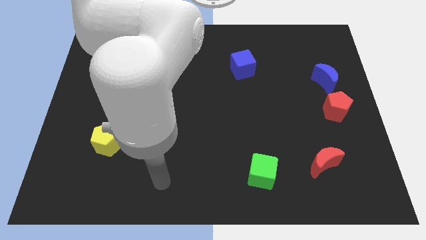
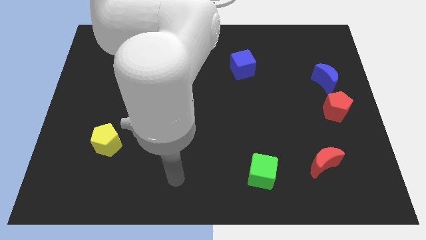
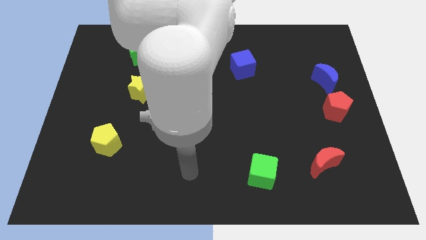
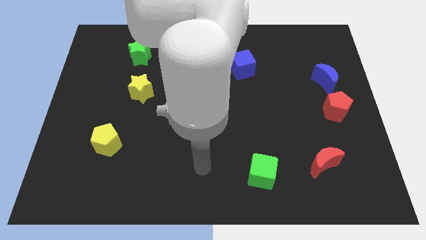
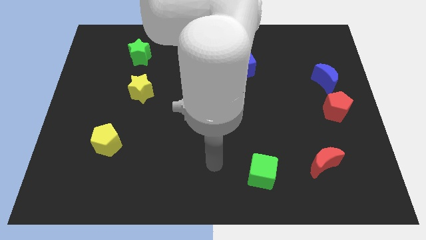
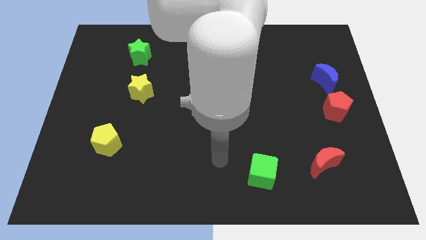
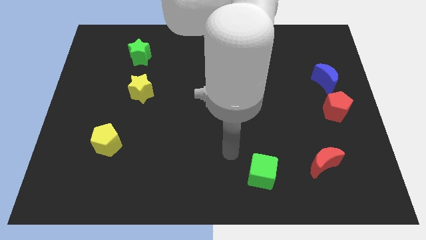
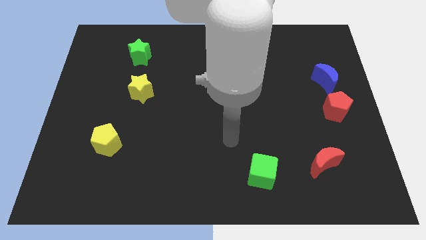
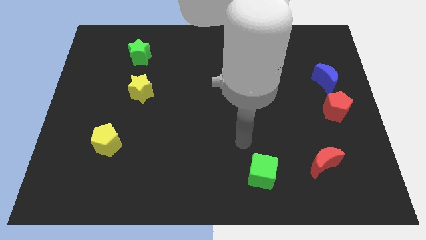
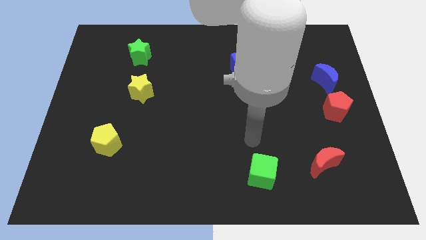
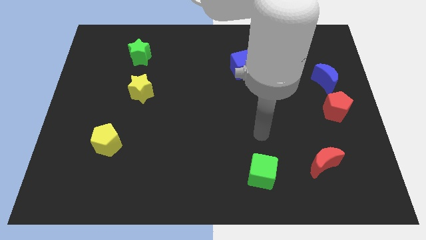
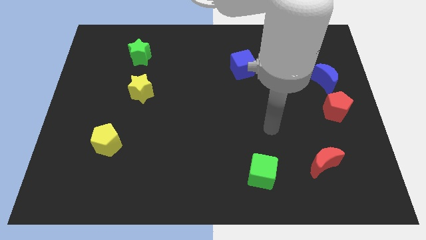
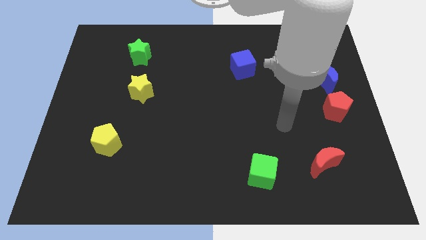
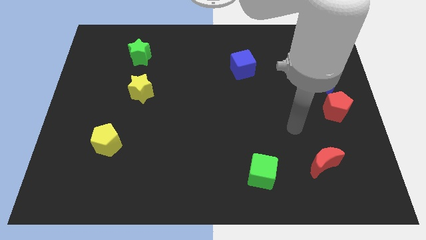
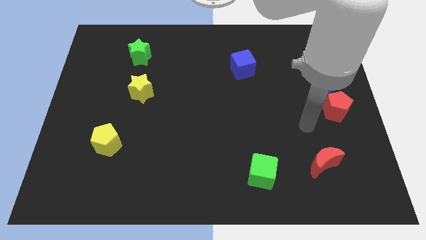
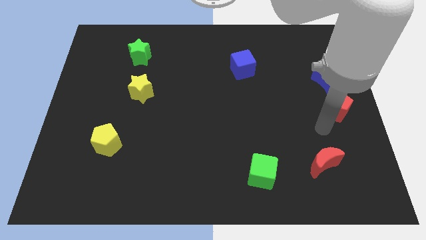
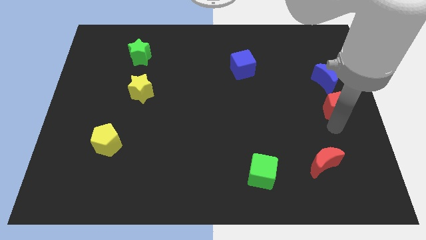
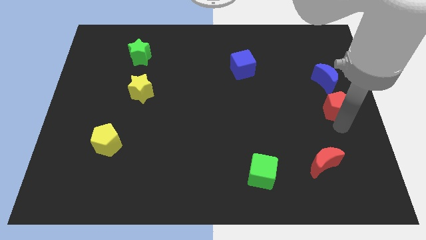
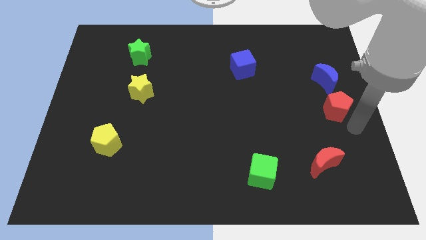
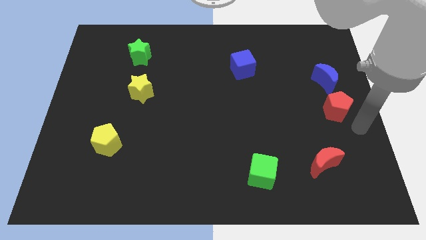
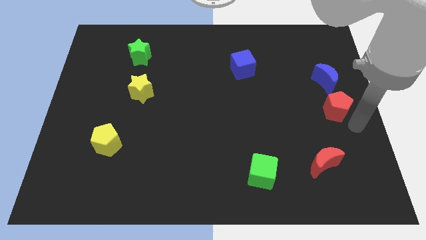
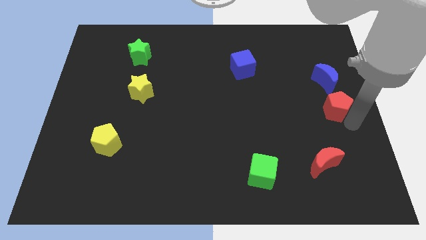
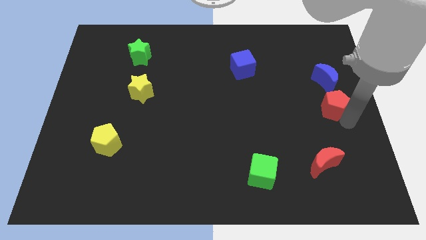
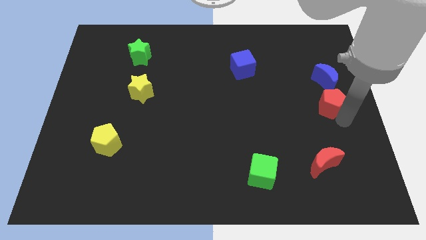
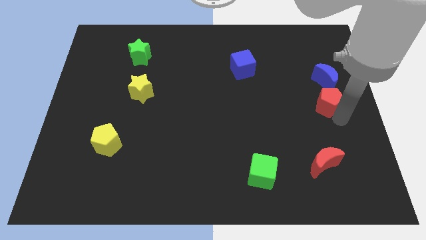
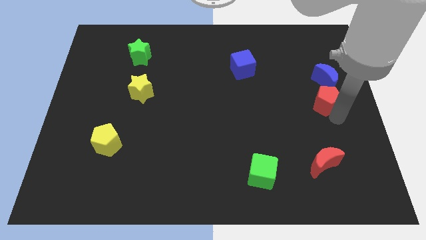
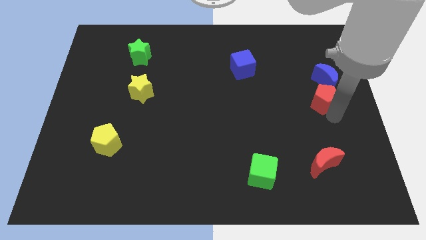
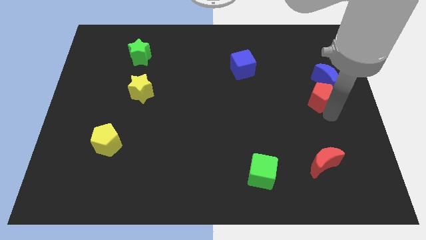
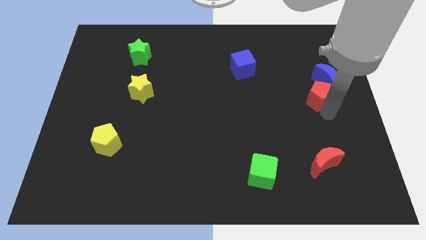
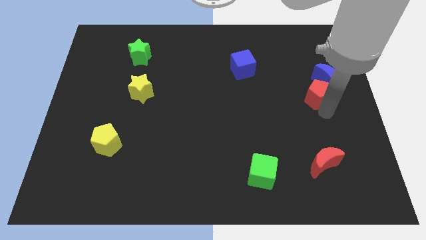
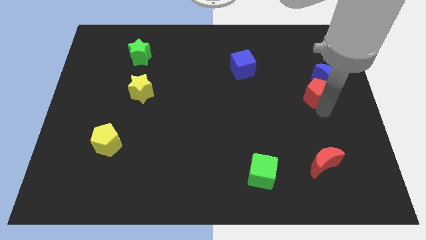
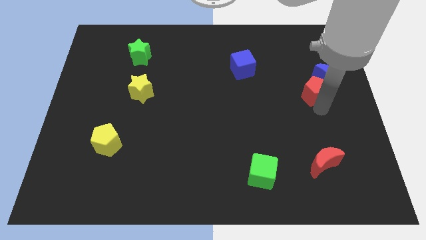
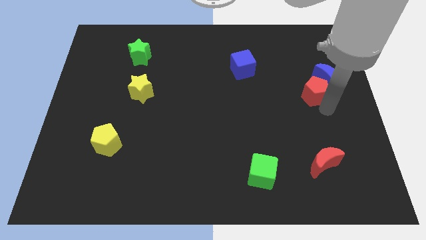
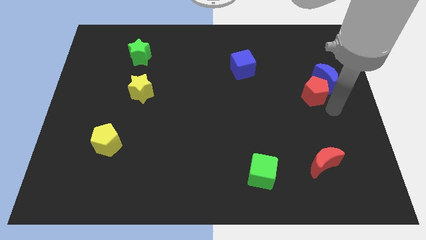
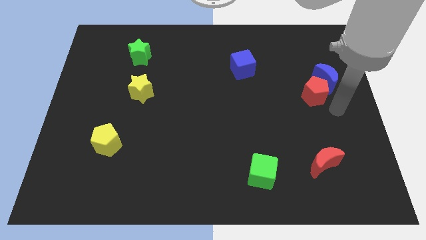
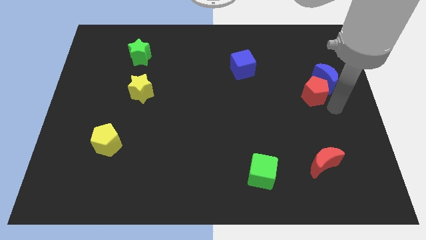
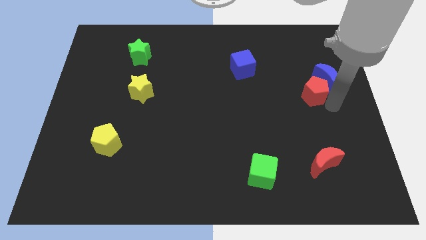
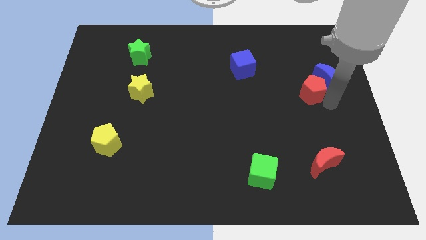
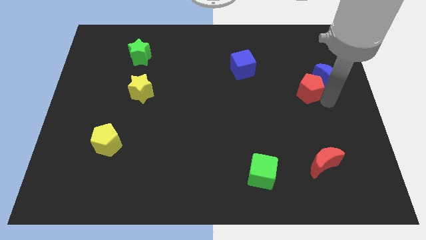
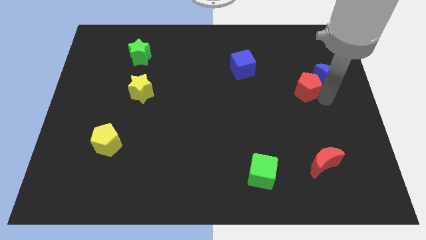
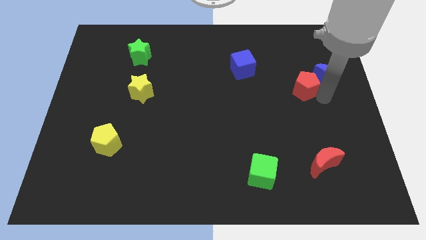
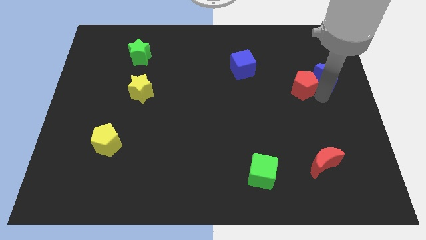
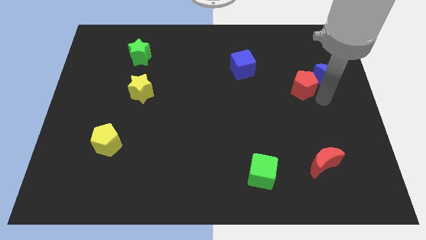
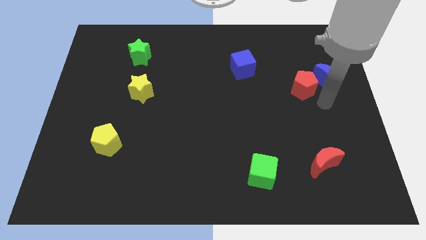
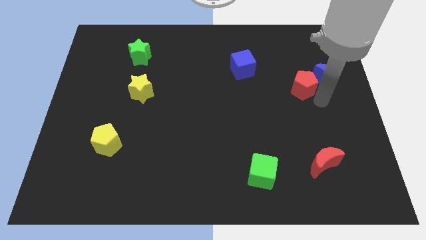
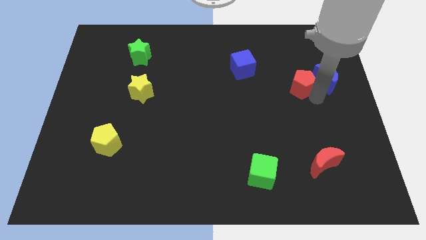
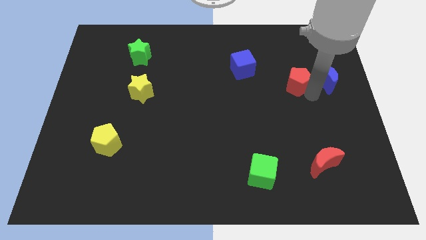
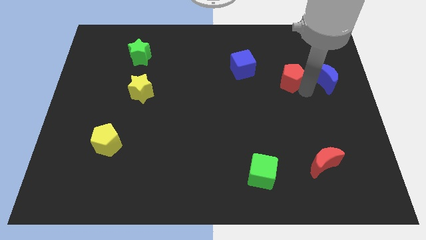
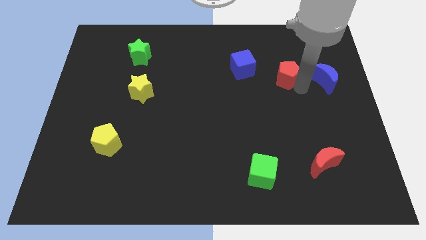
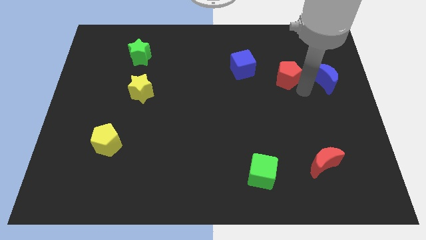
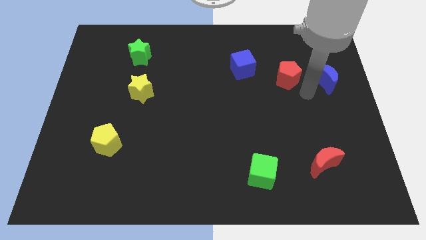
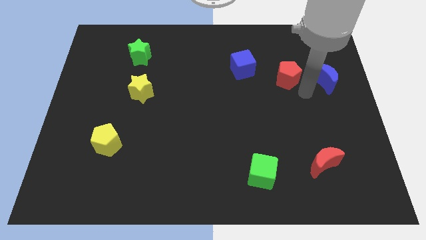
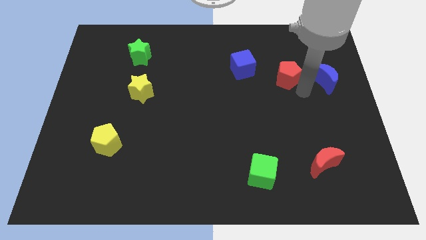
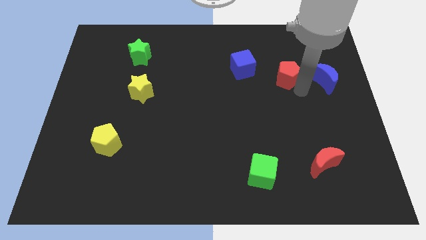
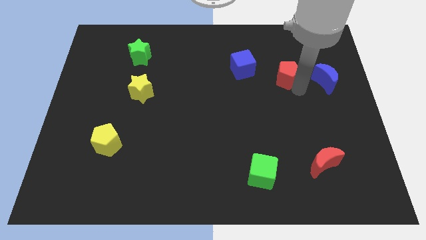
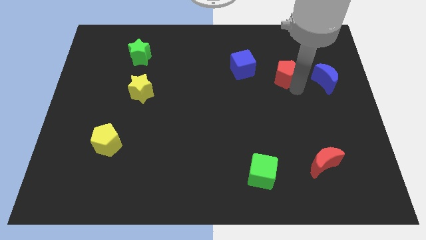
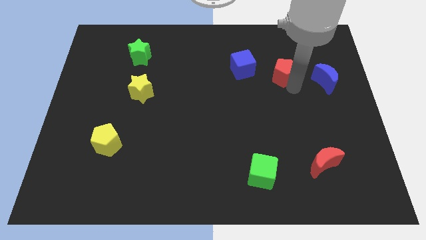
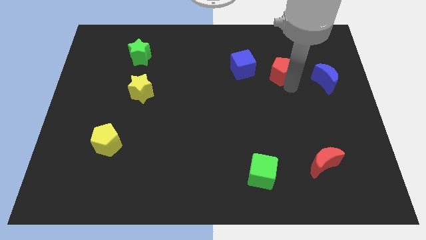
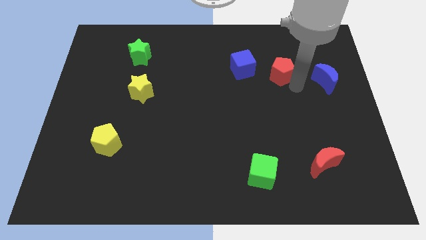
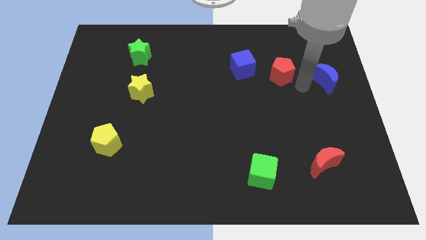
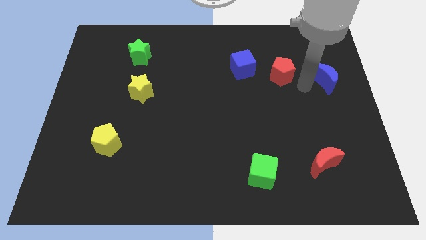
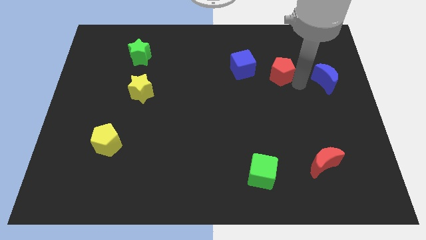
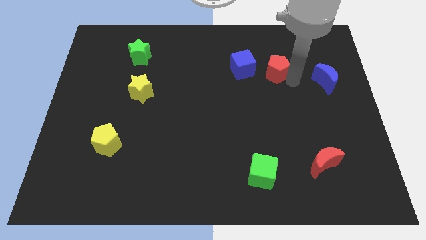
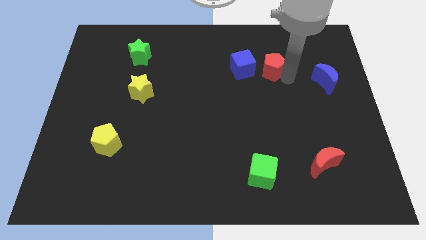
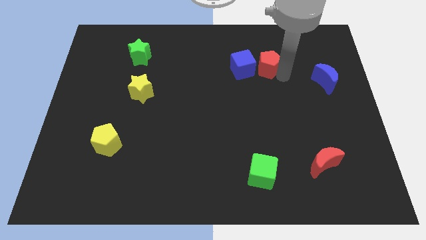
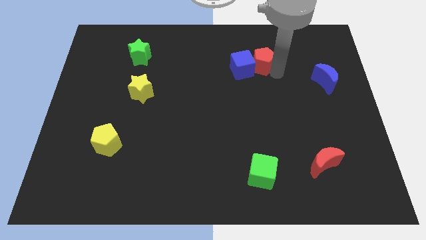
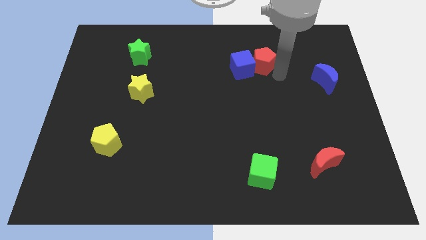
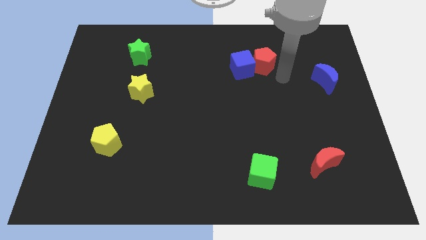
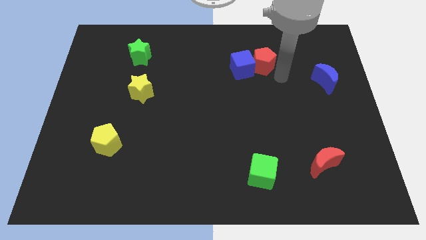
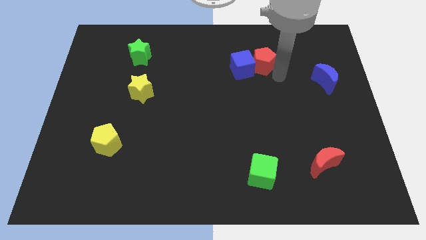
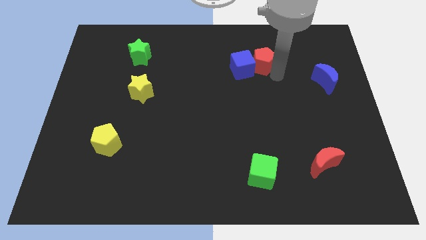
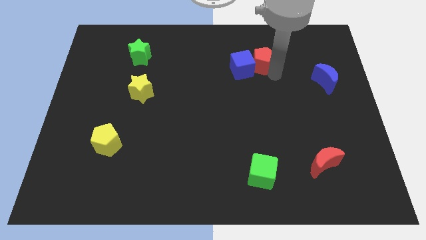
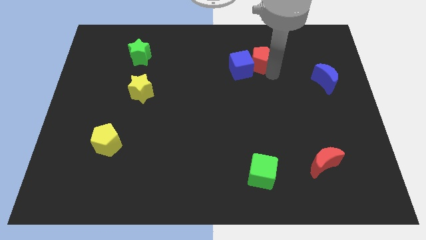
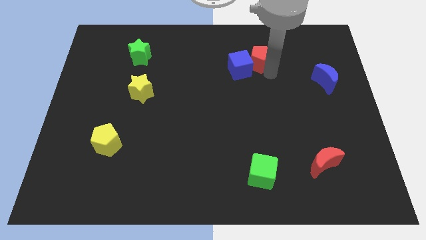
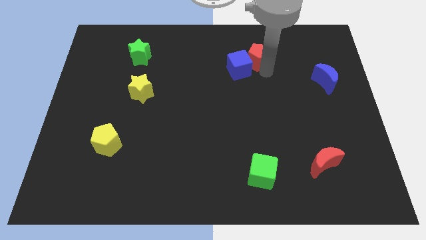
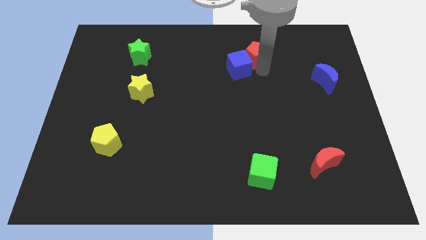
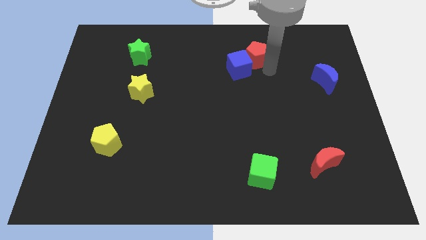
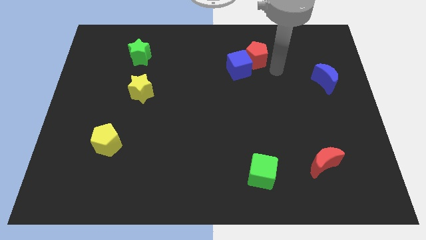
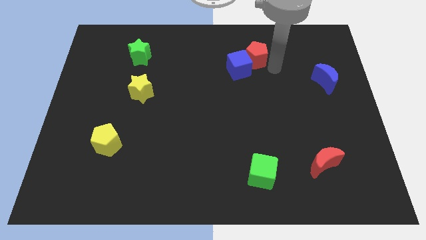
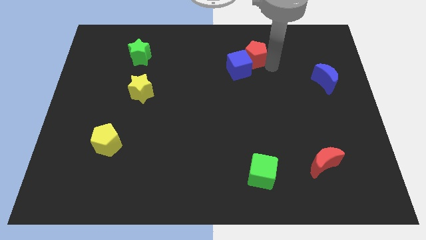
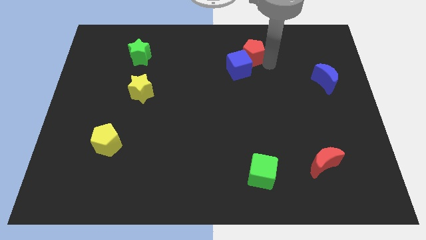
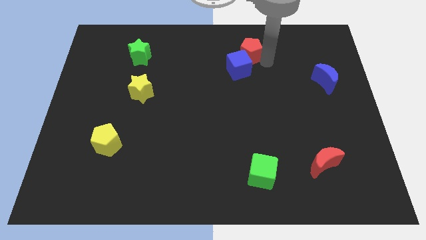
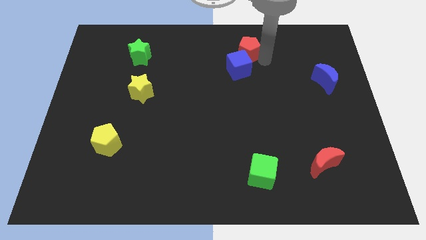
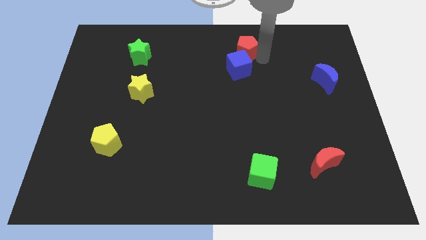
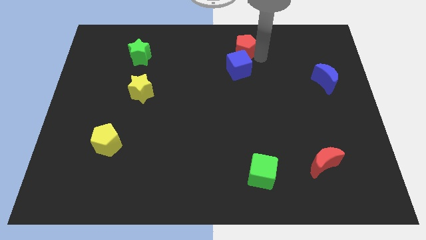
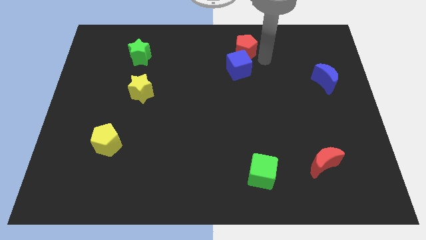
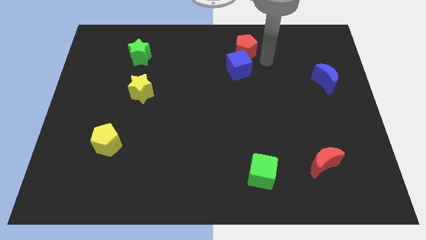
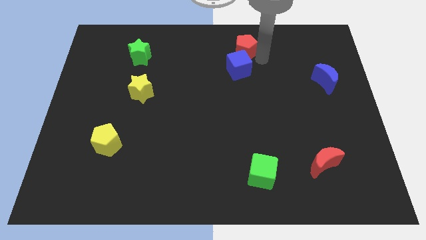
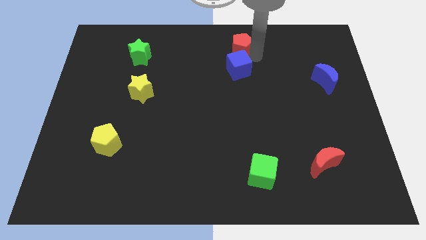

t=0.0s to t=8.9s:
put the red pentagon to the top side
